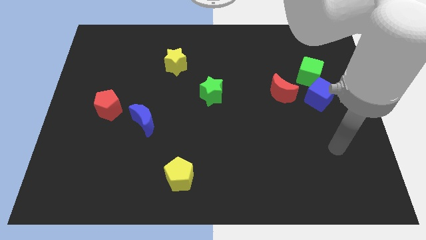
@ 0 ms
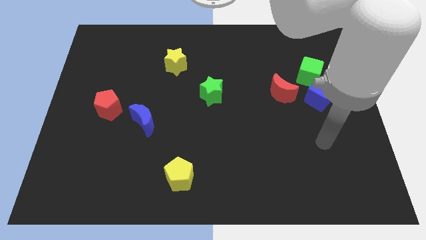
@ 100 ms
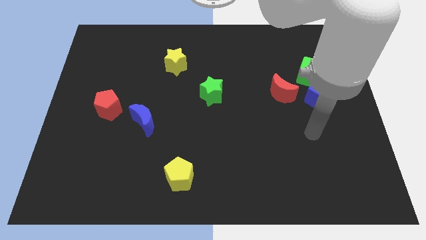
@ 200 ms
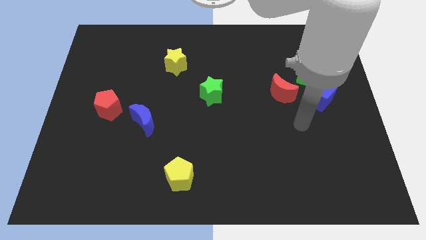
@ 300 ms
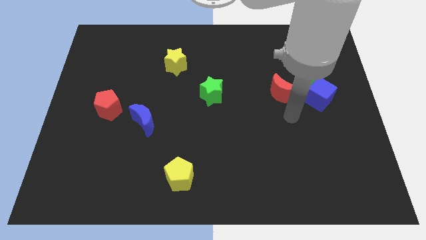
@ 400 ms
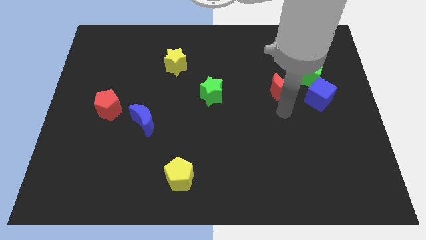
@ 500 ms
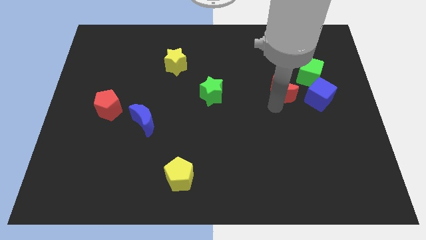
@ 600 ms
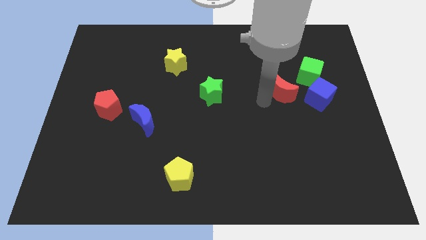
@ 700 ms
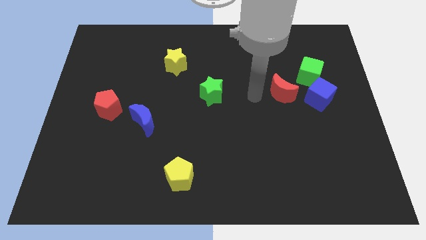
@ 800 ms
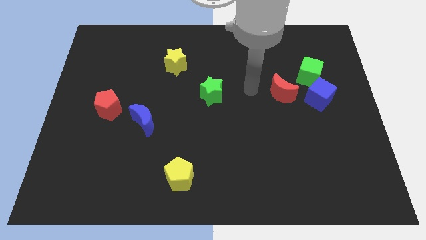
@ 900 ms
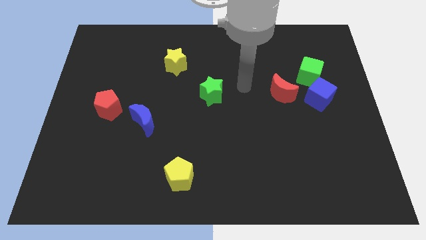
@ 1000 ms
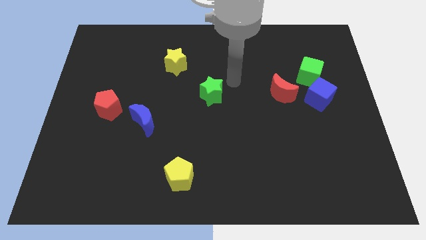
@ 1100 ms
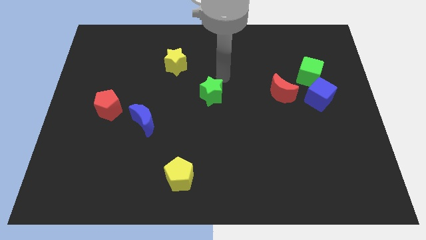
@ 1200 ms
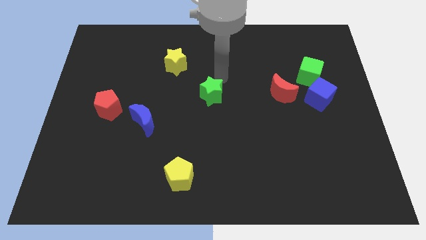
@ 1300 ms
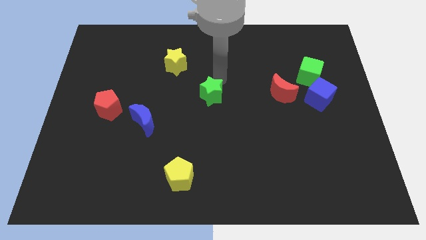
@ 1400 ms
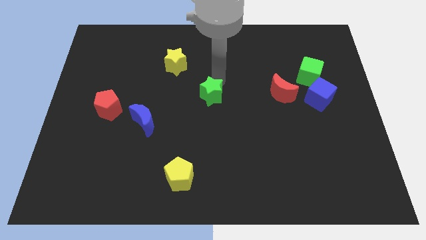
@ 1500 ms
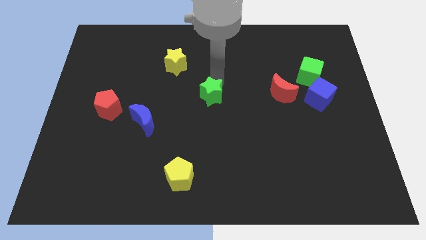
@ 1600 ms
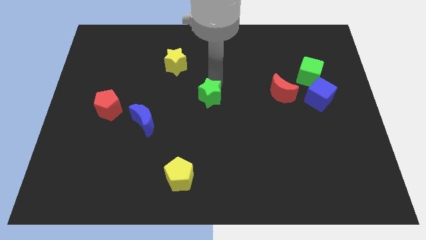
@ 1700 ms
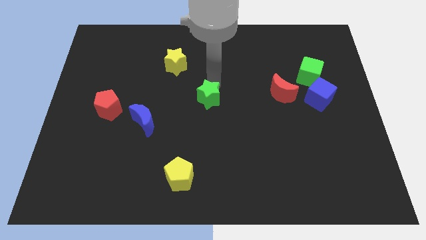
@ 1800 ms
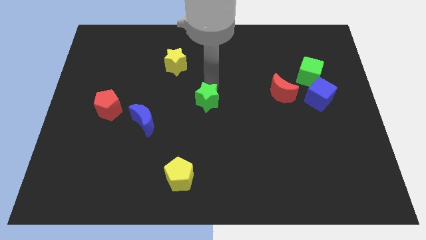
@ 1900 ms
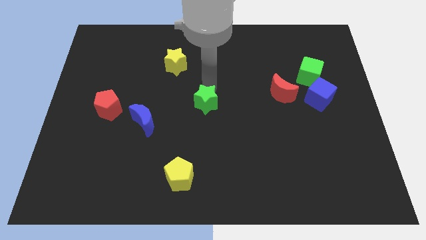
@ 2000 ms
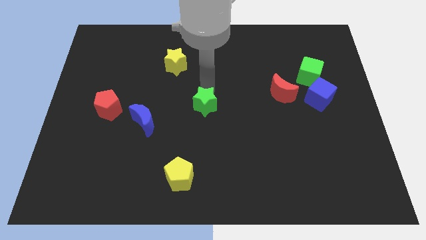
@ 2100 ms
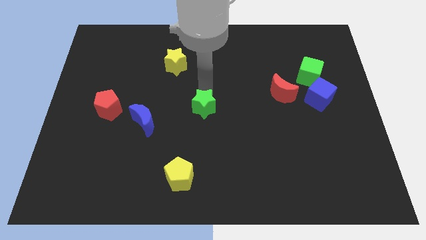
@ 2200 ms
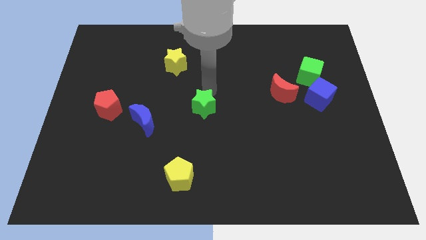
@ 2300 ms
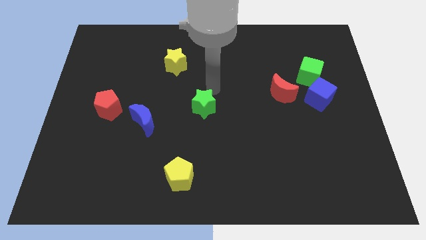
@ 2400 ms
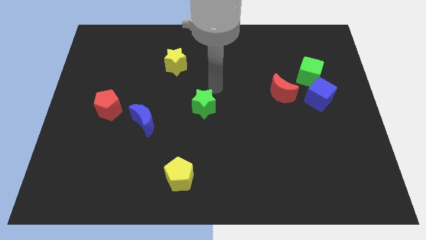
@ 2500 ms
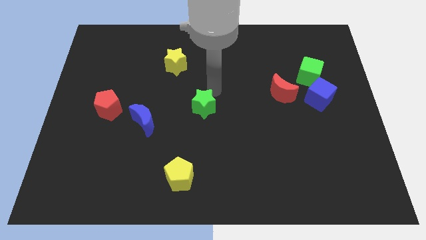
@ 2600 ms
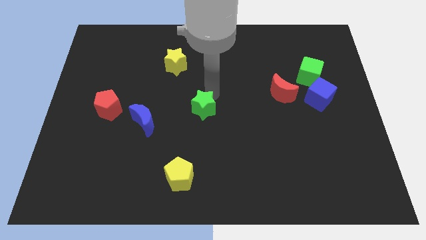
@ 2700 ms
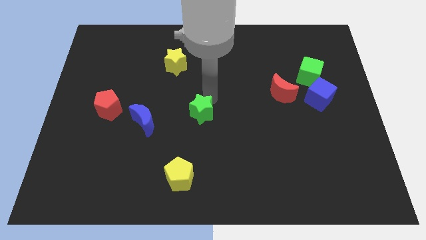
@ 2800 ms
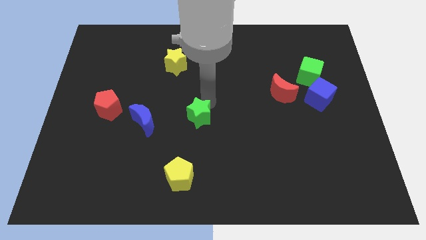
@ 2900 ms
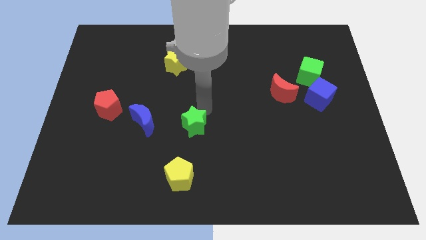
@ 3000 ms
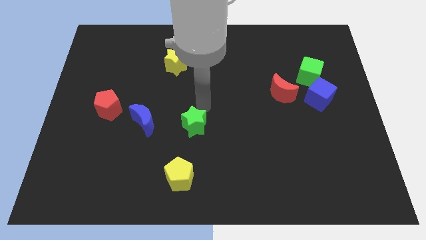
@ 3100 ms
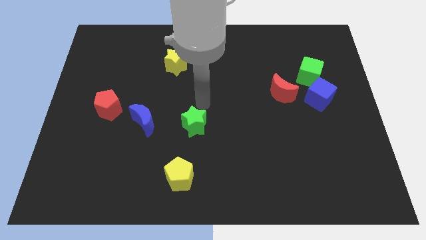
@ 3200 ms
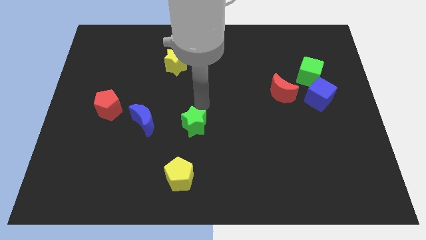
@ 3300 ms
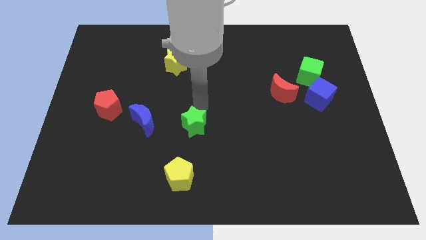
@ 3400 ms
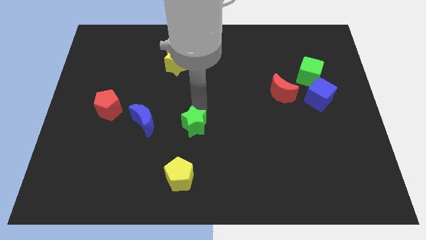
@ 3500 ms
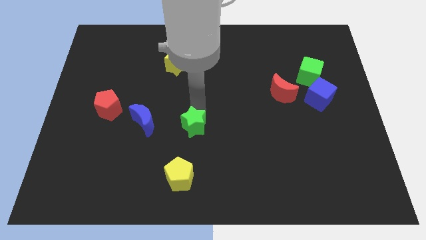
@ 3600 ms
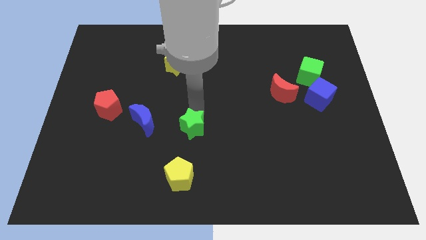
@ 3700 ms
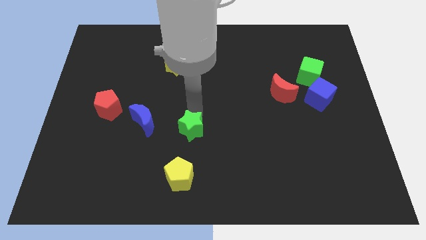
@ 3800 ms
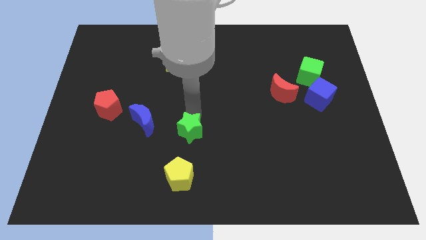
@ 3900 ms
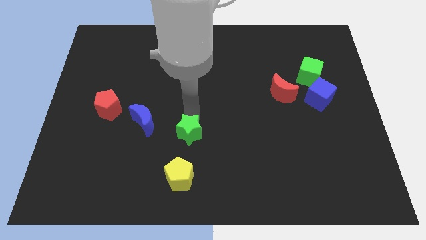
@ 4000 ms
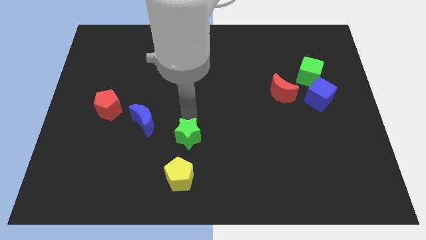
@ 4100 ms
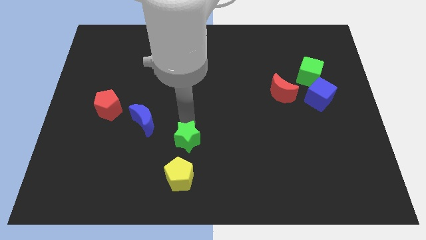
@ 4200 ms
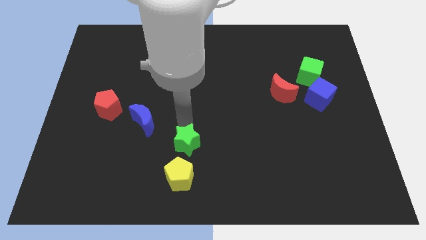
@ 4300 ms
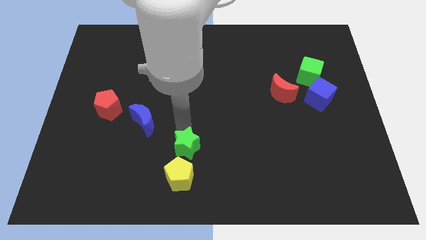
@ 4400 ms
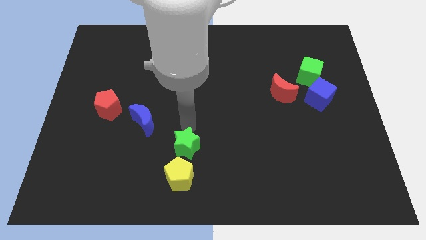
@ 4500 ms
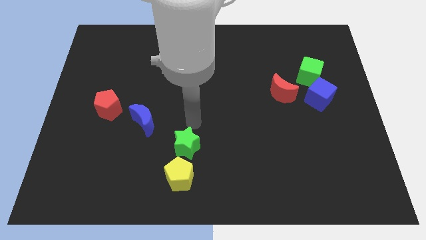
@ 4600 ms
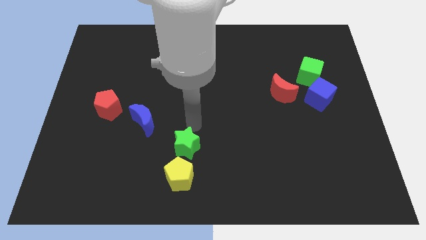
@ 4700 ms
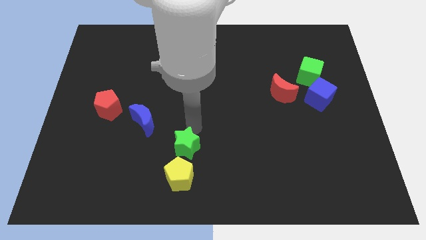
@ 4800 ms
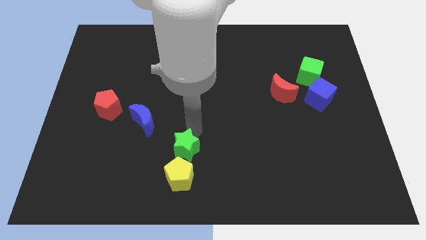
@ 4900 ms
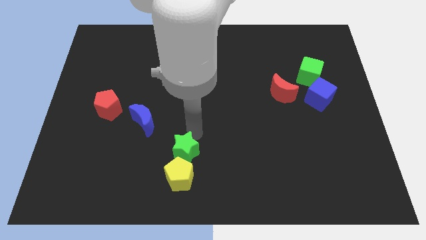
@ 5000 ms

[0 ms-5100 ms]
slide the green star towards the yellow pentagon

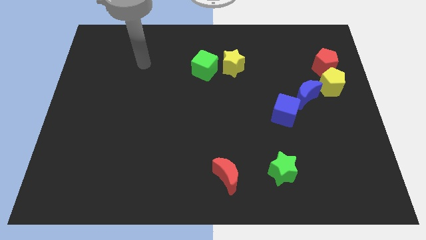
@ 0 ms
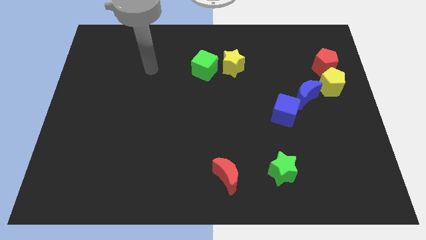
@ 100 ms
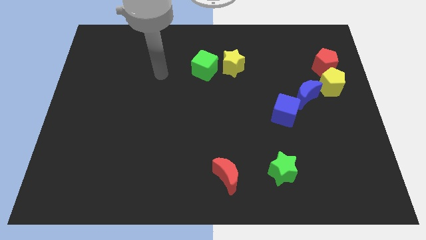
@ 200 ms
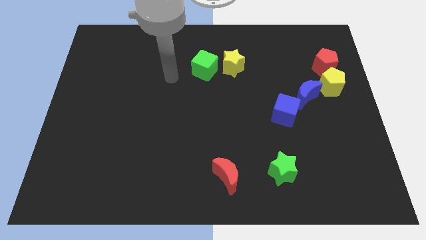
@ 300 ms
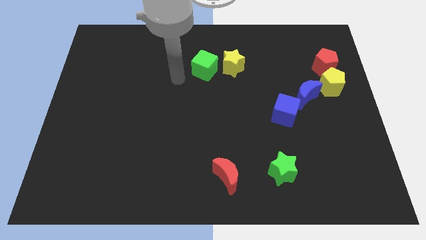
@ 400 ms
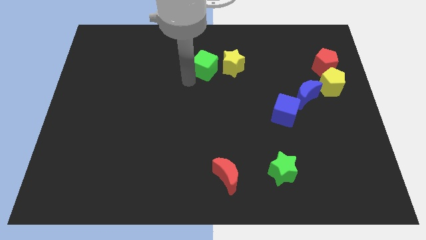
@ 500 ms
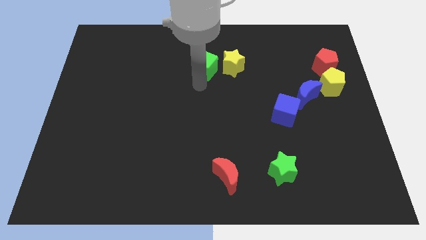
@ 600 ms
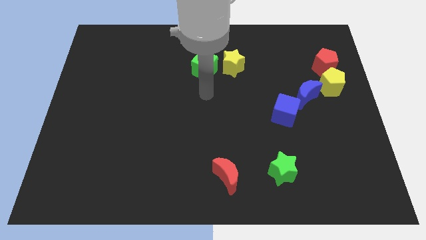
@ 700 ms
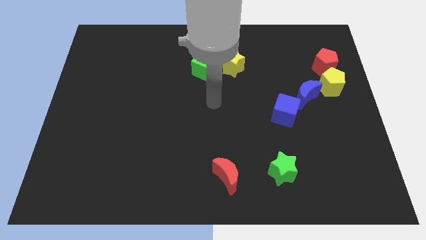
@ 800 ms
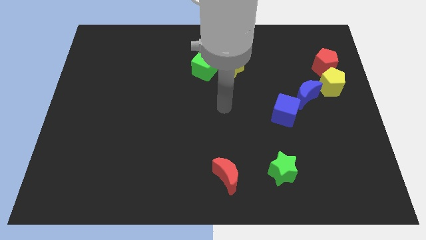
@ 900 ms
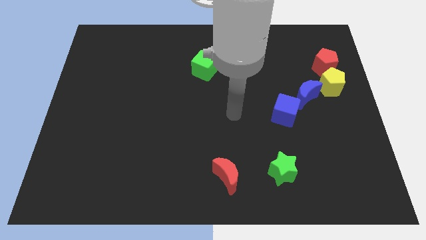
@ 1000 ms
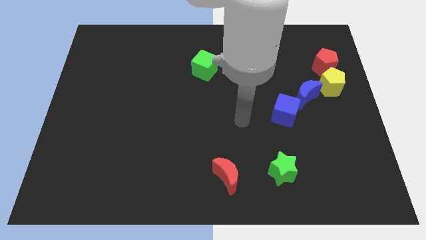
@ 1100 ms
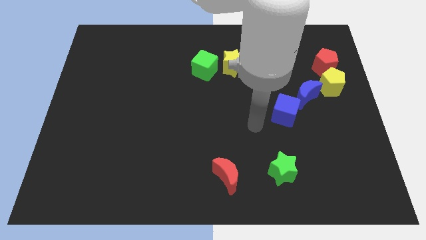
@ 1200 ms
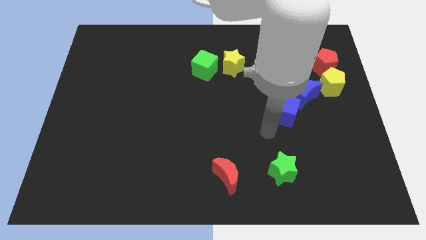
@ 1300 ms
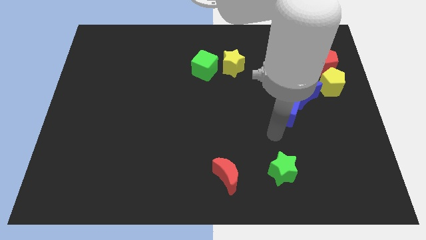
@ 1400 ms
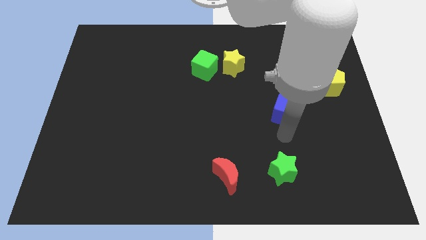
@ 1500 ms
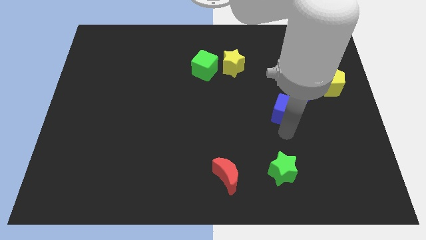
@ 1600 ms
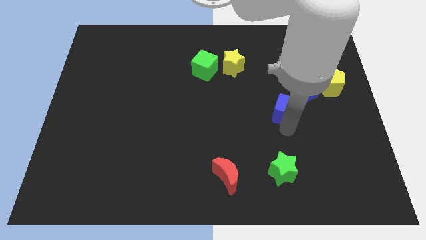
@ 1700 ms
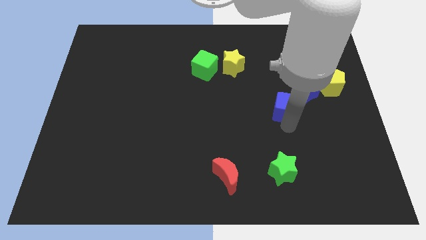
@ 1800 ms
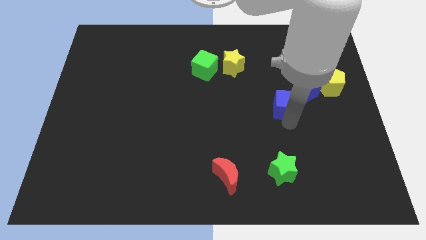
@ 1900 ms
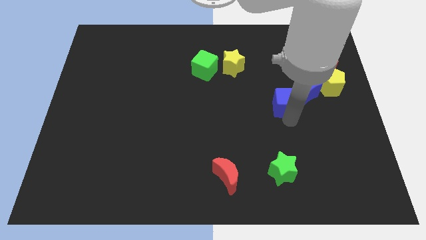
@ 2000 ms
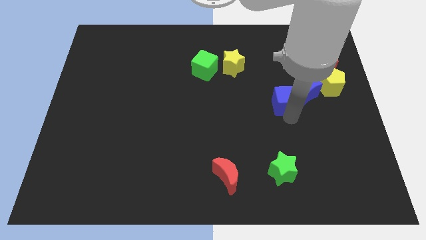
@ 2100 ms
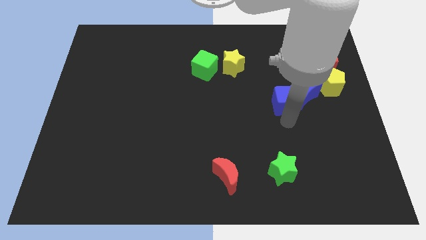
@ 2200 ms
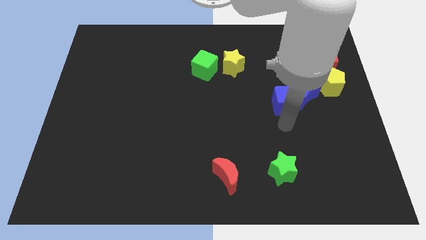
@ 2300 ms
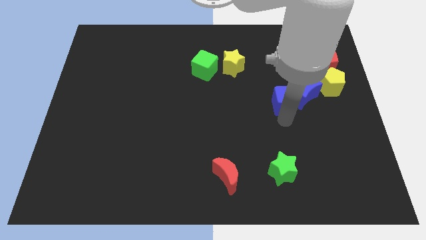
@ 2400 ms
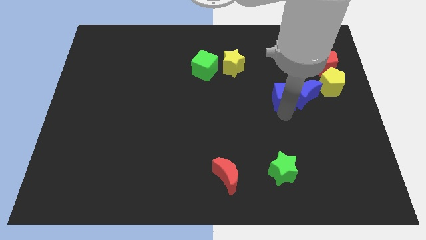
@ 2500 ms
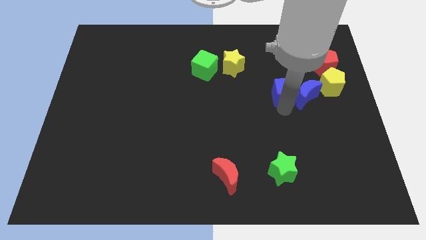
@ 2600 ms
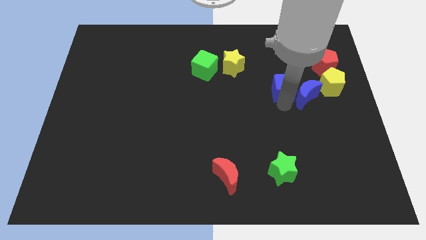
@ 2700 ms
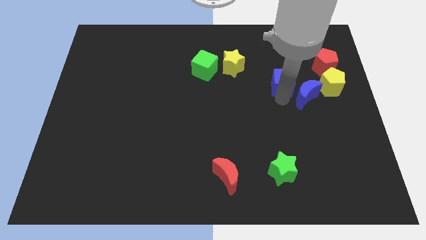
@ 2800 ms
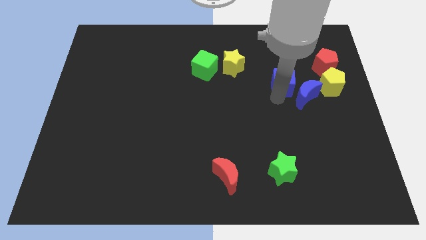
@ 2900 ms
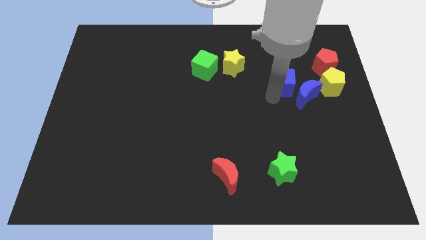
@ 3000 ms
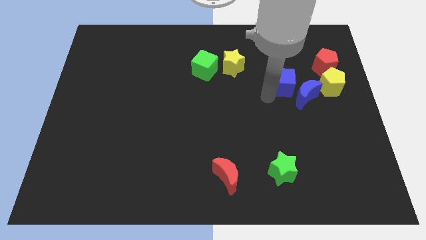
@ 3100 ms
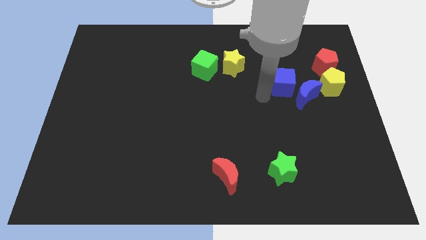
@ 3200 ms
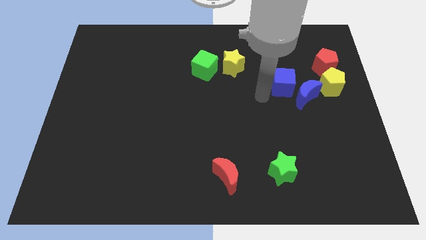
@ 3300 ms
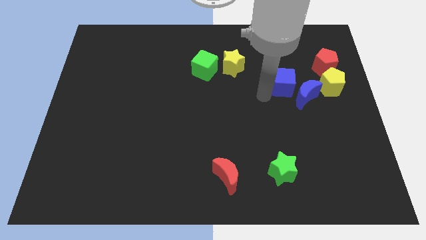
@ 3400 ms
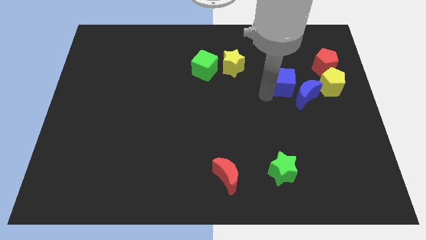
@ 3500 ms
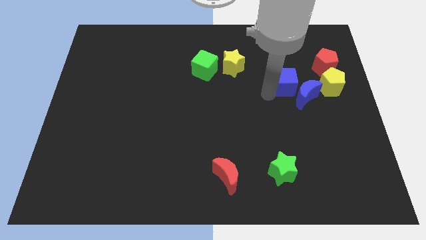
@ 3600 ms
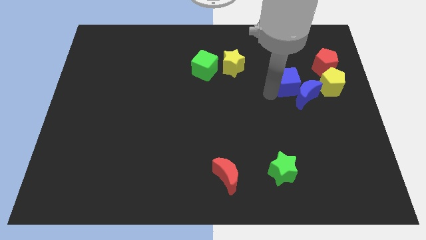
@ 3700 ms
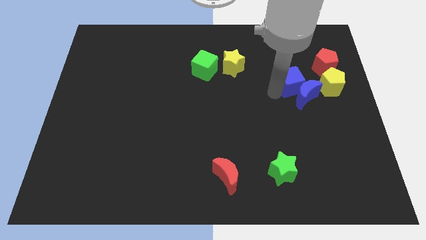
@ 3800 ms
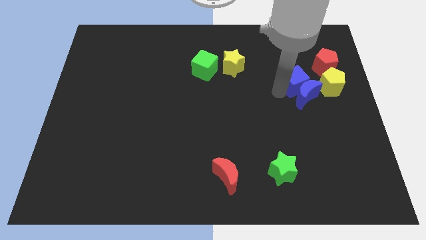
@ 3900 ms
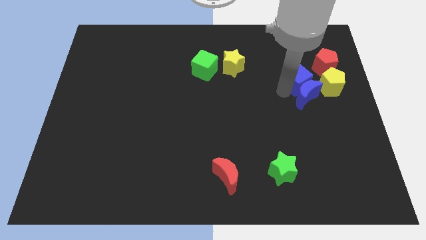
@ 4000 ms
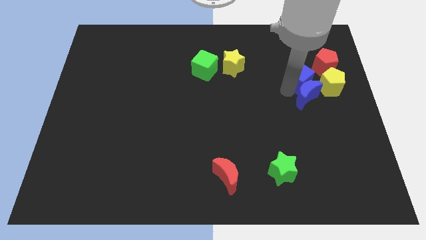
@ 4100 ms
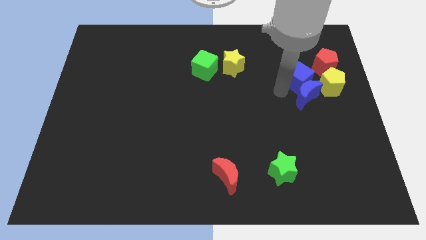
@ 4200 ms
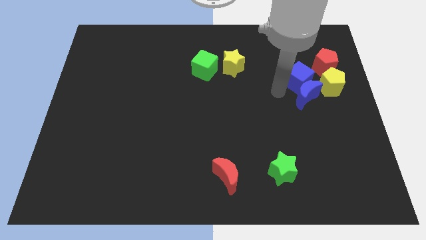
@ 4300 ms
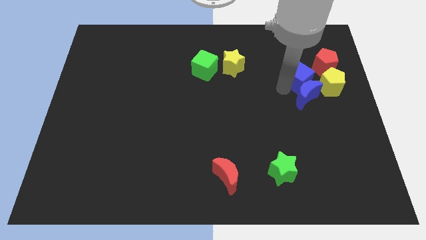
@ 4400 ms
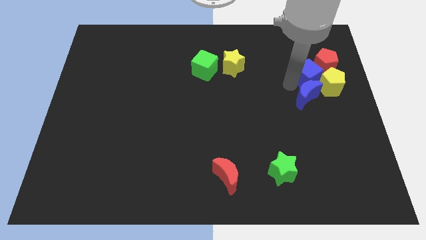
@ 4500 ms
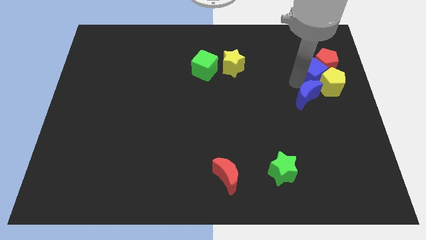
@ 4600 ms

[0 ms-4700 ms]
slide the blue cube to the red pentagon
